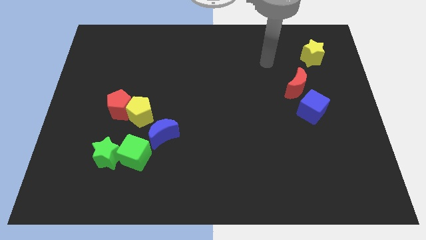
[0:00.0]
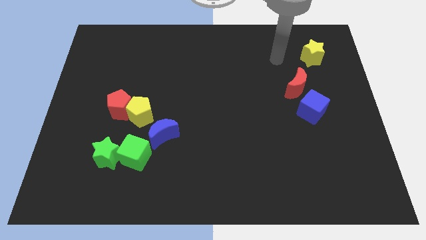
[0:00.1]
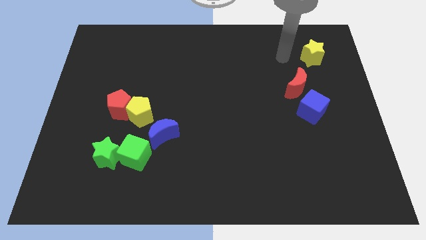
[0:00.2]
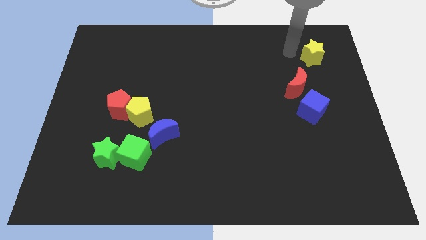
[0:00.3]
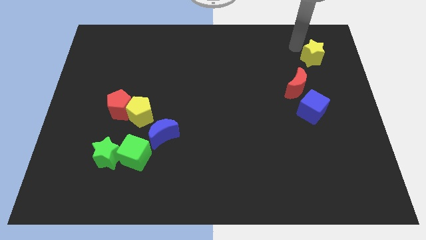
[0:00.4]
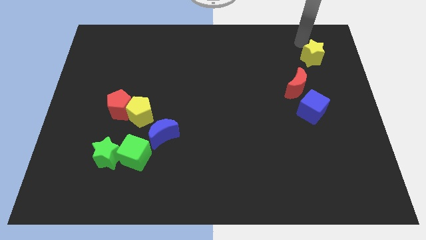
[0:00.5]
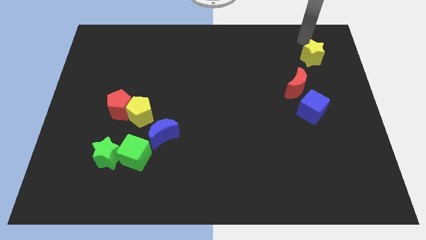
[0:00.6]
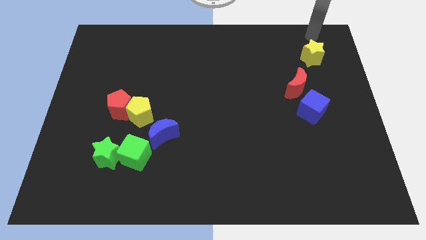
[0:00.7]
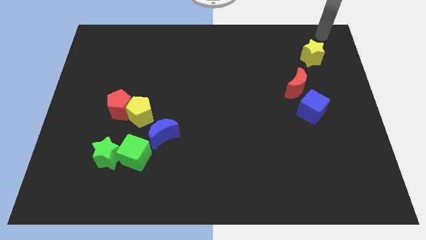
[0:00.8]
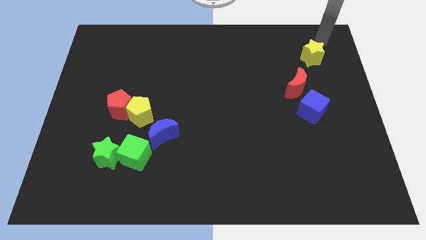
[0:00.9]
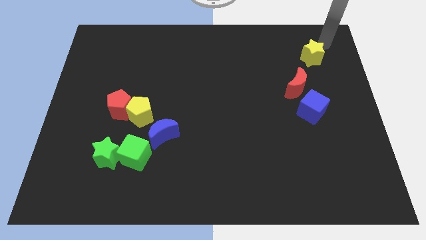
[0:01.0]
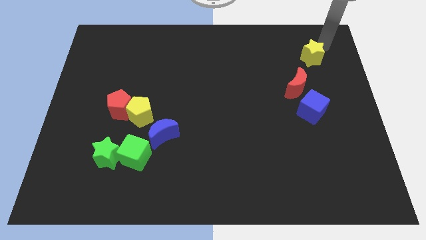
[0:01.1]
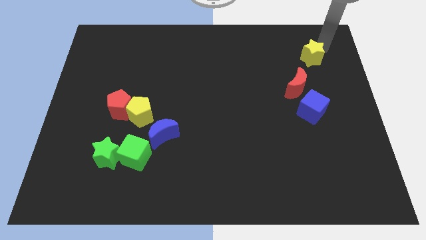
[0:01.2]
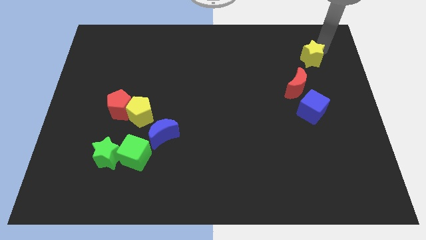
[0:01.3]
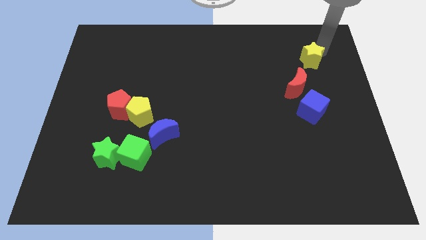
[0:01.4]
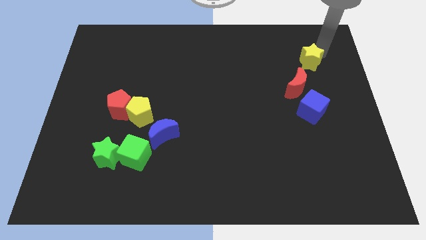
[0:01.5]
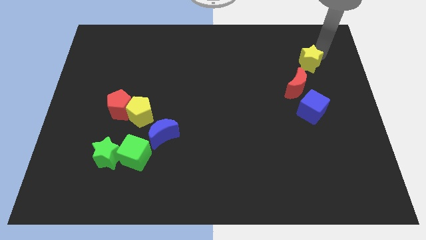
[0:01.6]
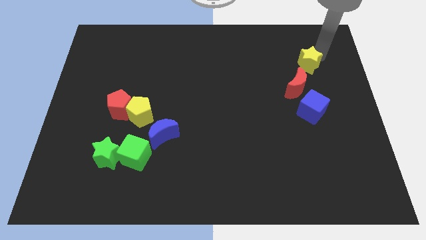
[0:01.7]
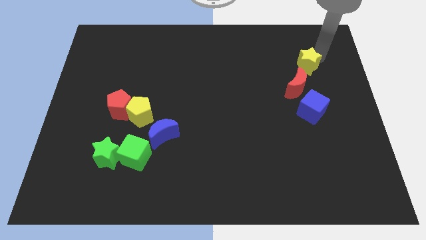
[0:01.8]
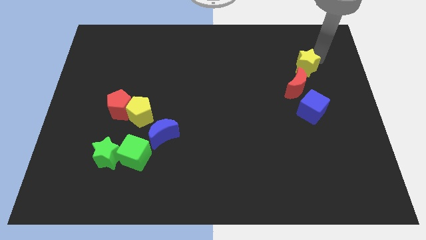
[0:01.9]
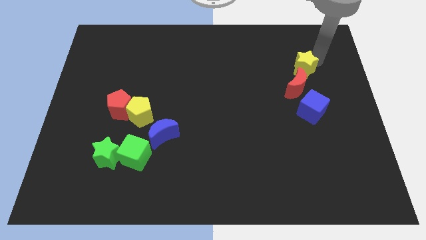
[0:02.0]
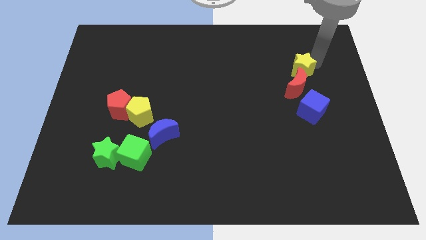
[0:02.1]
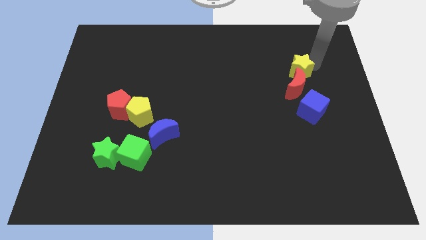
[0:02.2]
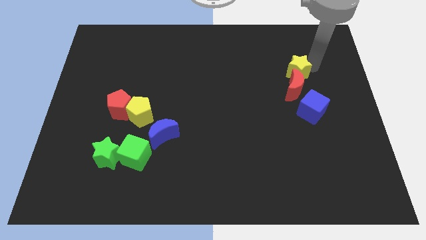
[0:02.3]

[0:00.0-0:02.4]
slightly move the yellow star diagonally down and left

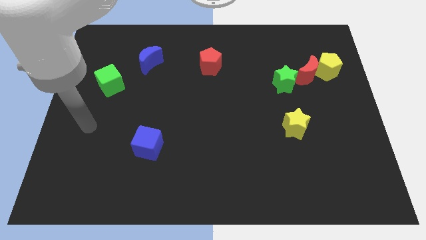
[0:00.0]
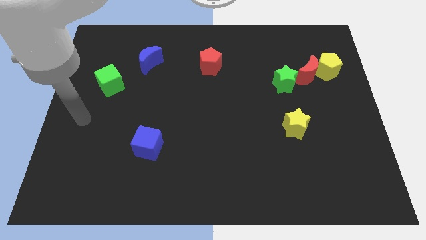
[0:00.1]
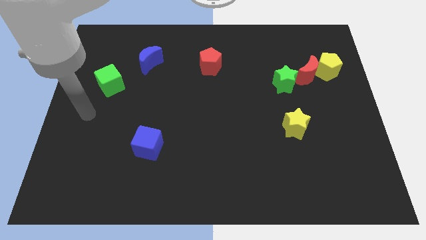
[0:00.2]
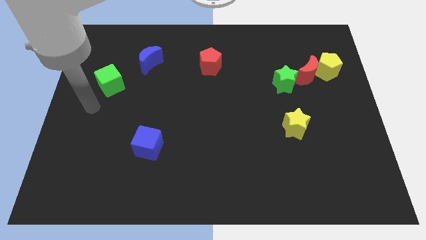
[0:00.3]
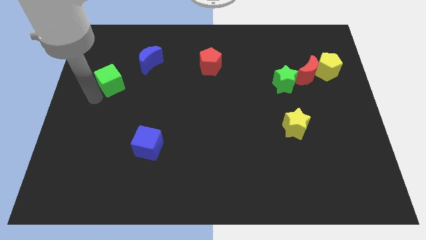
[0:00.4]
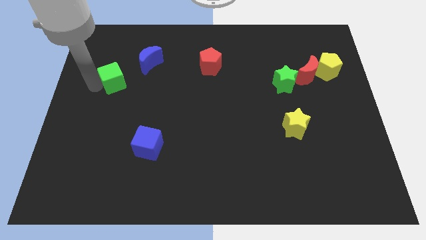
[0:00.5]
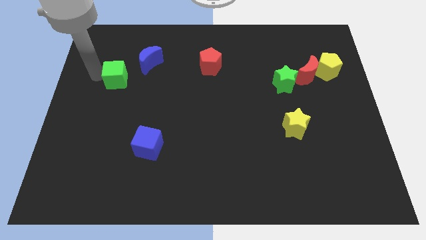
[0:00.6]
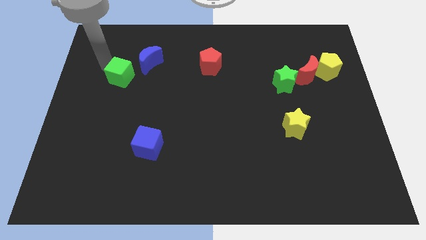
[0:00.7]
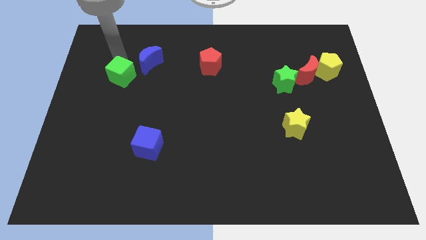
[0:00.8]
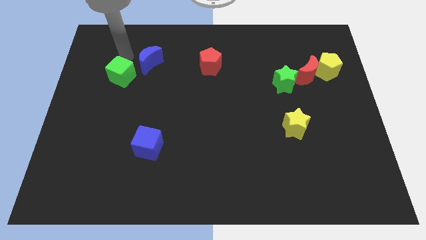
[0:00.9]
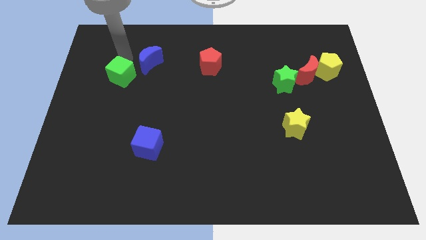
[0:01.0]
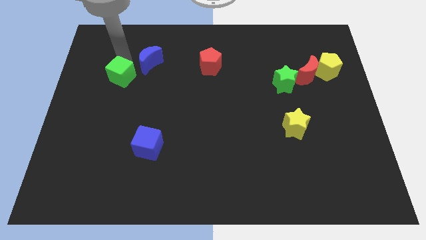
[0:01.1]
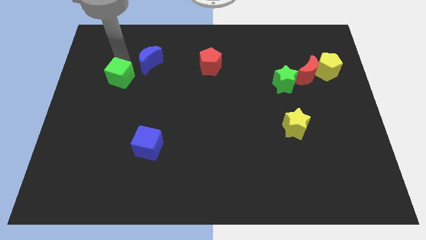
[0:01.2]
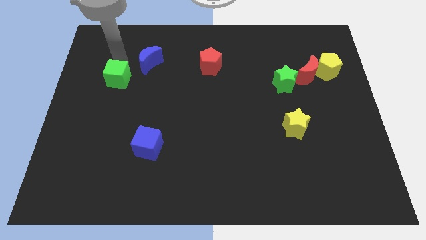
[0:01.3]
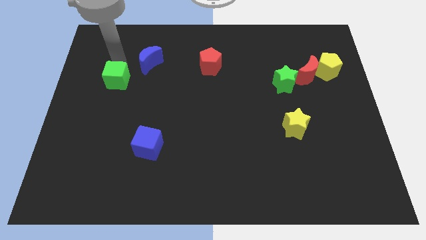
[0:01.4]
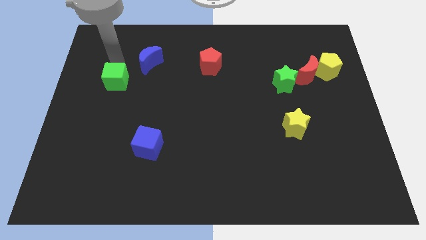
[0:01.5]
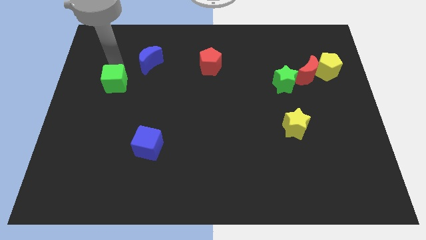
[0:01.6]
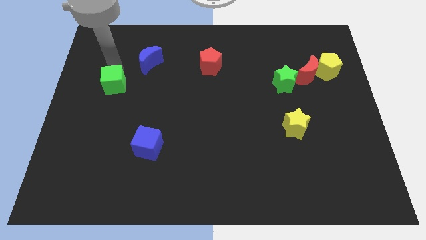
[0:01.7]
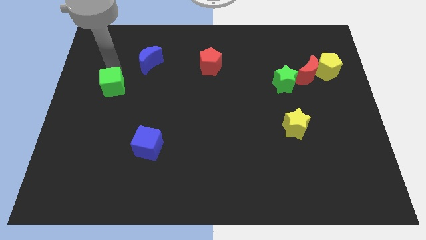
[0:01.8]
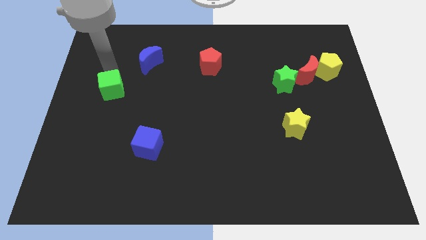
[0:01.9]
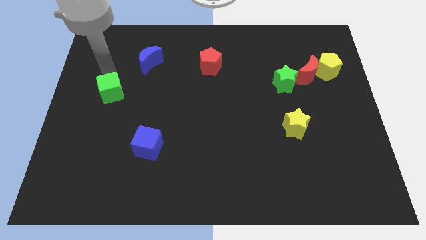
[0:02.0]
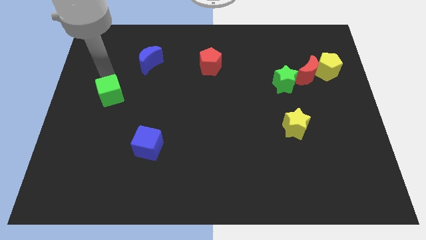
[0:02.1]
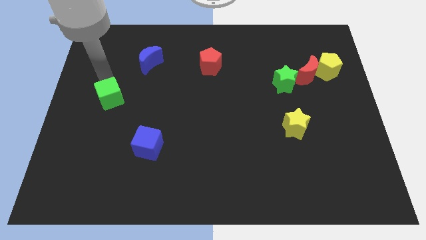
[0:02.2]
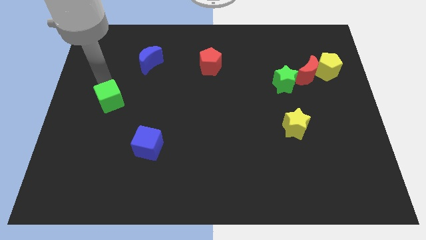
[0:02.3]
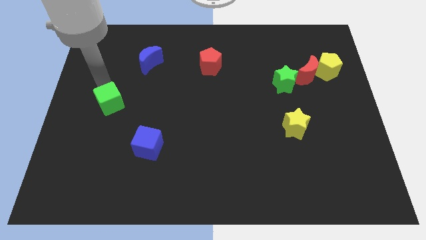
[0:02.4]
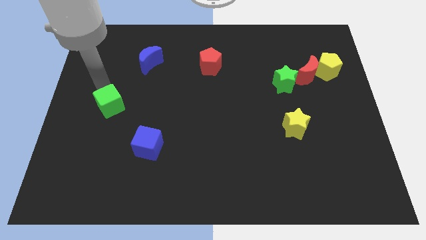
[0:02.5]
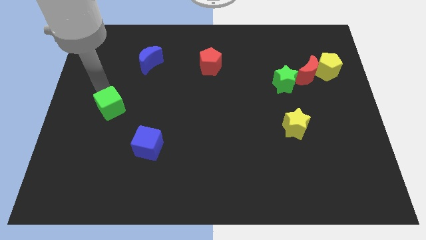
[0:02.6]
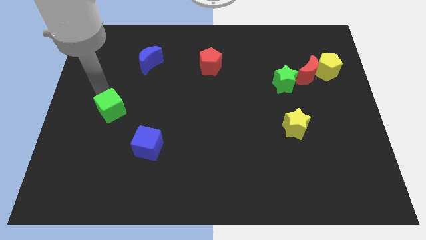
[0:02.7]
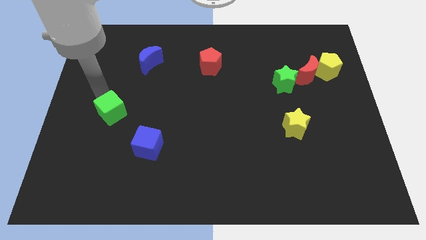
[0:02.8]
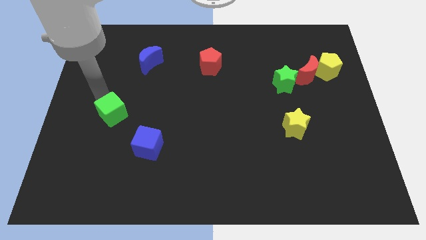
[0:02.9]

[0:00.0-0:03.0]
push the green cube downwards and right a little bit

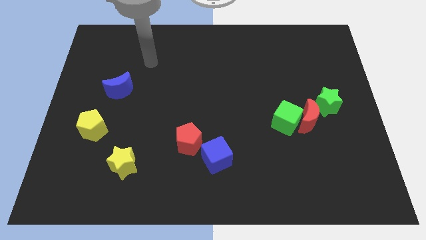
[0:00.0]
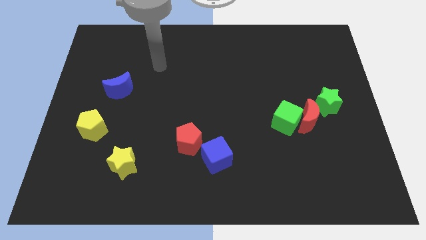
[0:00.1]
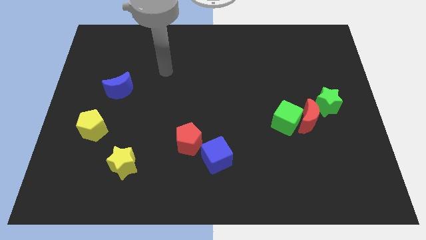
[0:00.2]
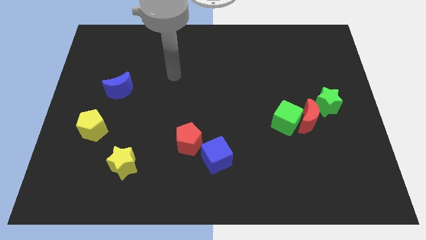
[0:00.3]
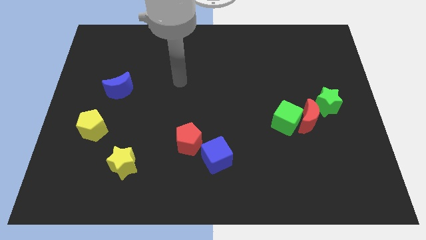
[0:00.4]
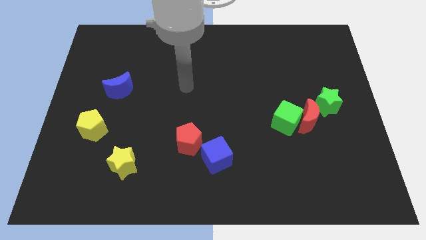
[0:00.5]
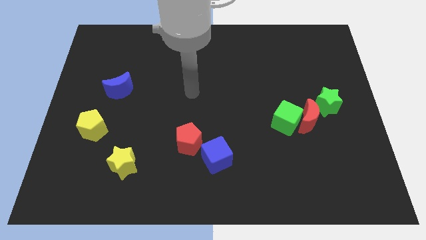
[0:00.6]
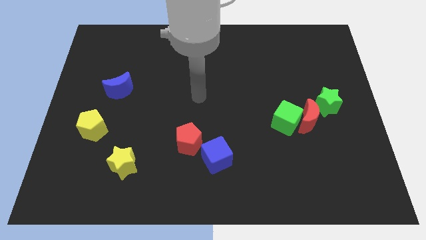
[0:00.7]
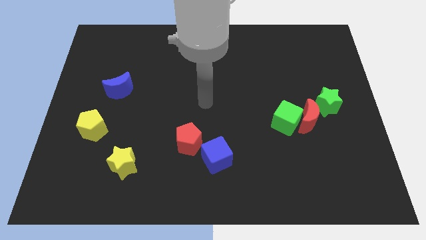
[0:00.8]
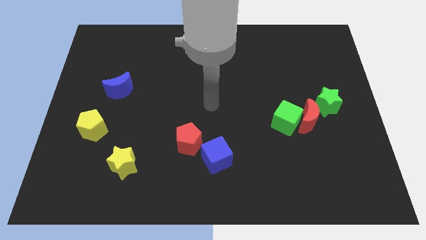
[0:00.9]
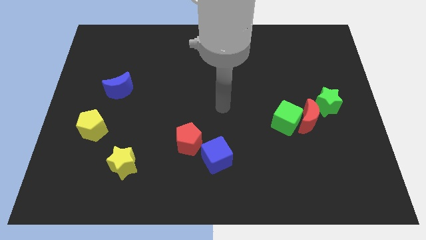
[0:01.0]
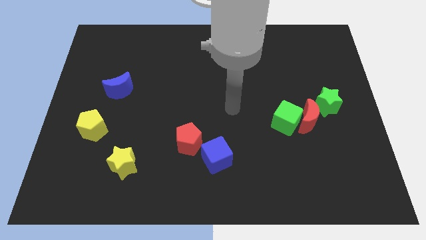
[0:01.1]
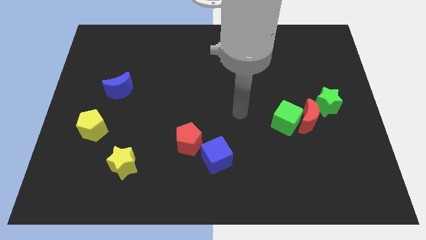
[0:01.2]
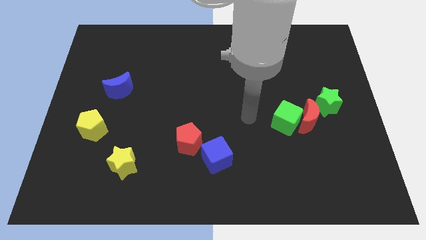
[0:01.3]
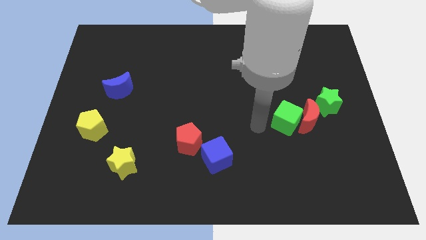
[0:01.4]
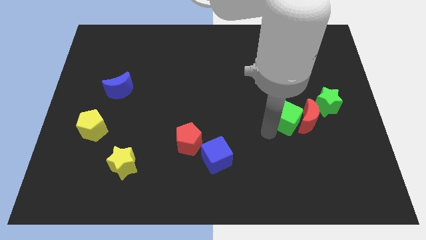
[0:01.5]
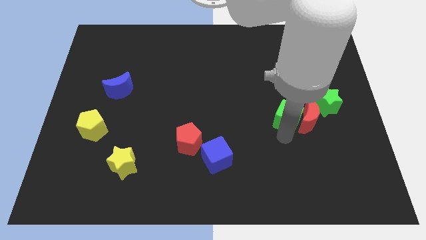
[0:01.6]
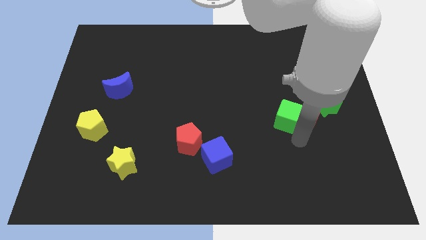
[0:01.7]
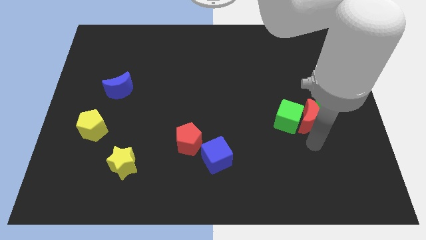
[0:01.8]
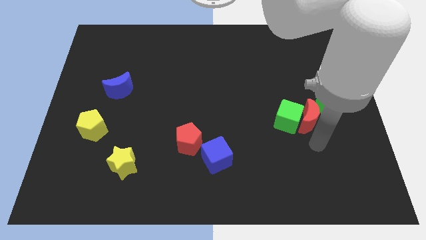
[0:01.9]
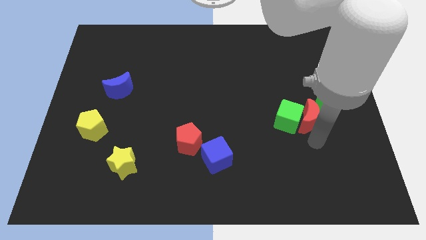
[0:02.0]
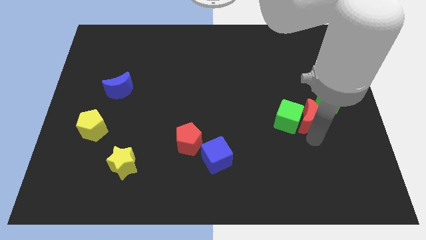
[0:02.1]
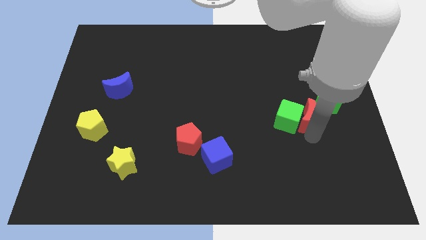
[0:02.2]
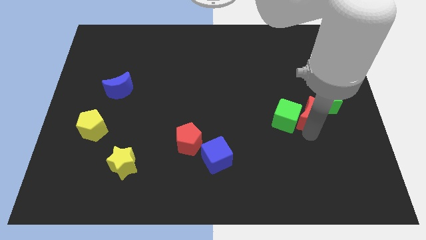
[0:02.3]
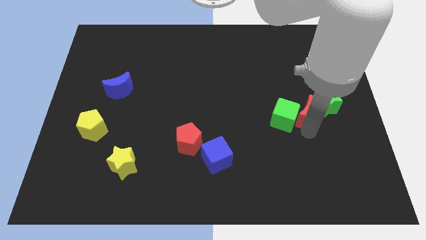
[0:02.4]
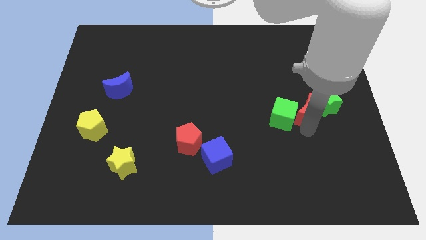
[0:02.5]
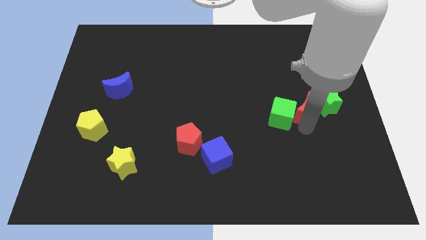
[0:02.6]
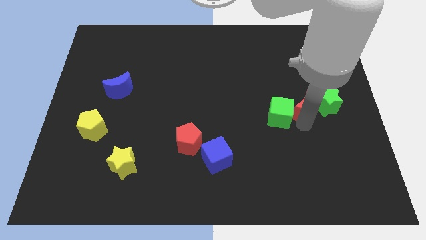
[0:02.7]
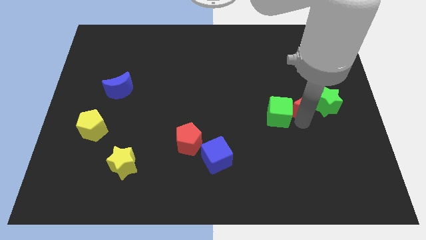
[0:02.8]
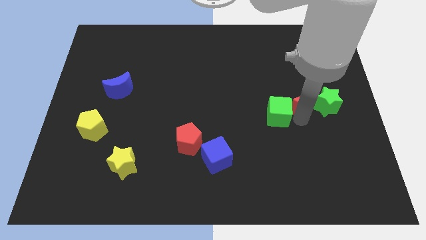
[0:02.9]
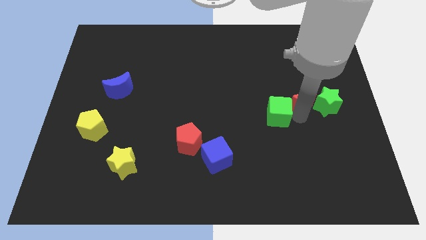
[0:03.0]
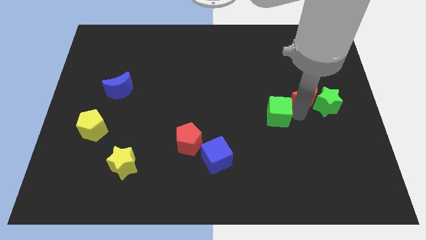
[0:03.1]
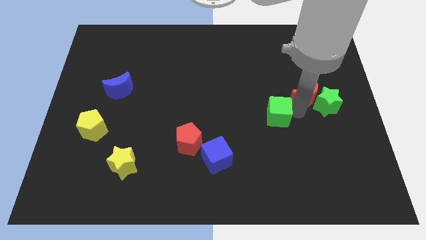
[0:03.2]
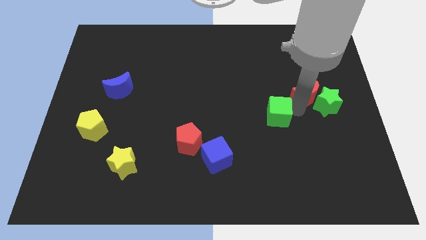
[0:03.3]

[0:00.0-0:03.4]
slide the red moon a bit up
